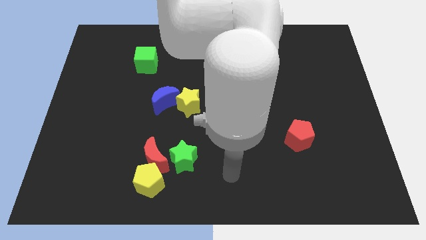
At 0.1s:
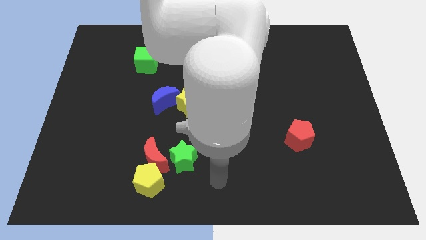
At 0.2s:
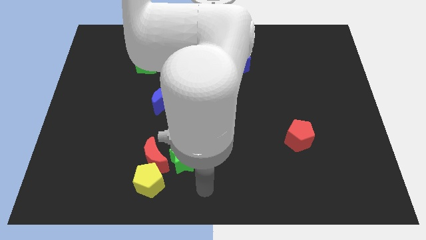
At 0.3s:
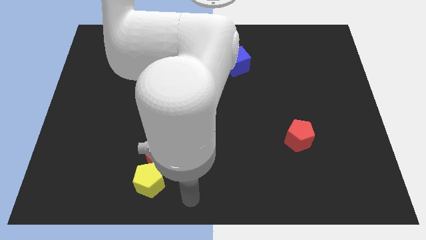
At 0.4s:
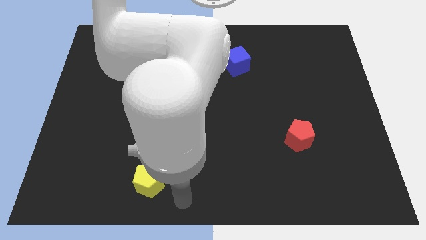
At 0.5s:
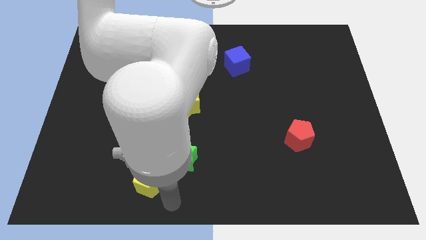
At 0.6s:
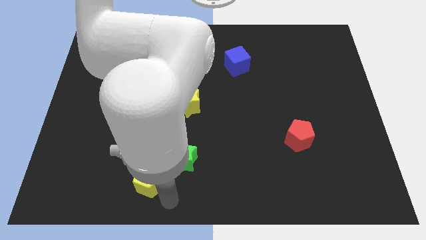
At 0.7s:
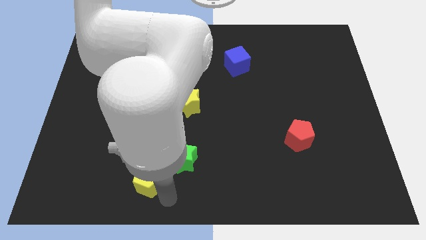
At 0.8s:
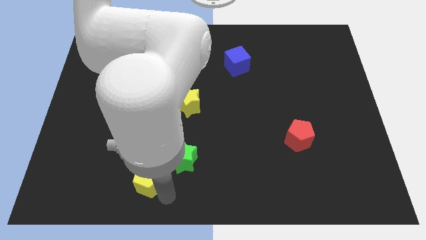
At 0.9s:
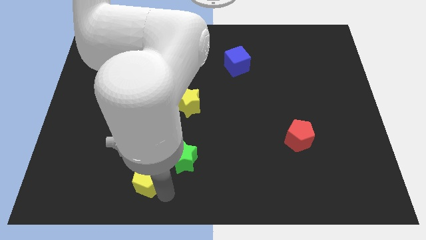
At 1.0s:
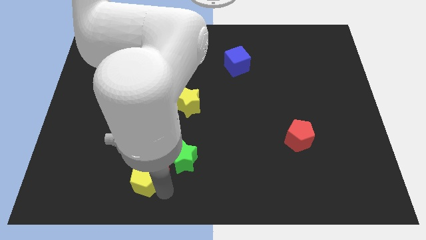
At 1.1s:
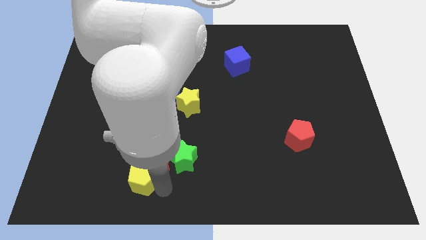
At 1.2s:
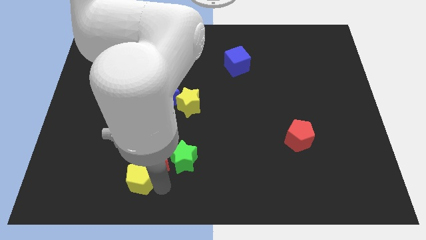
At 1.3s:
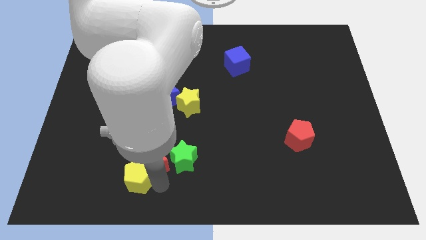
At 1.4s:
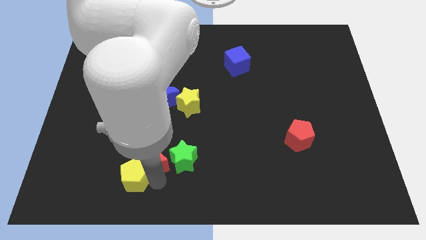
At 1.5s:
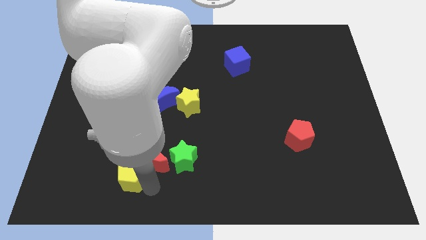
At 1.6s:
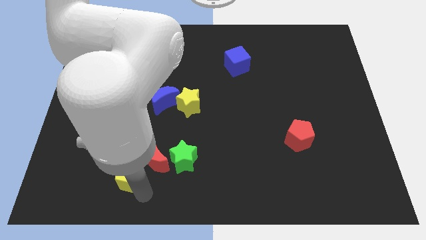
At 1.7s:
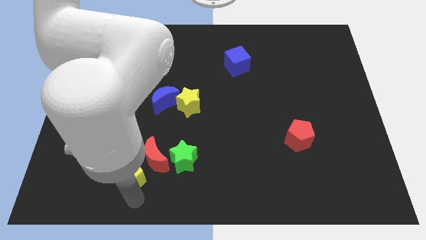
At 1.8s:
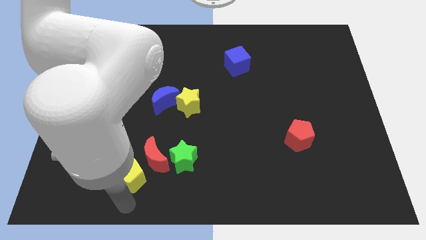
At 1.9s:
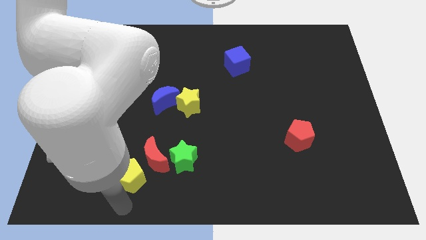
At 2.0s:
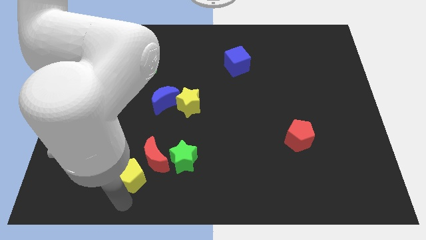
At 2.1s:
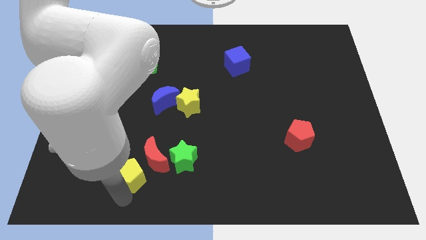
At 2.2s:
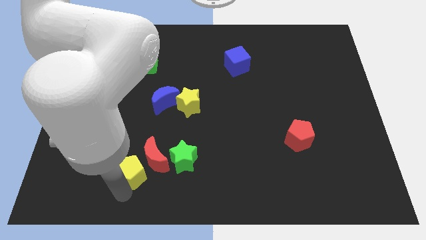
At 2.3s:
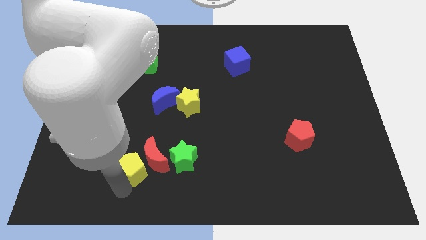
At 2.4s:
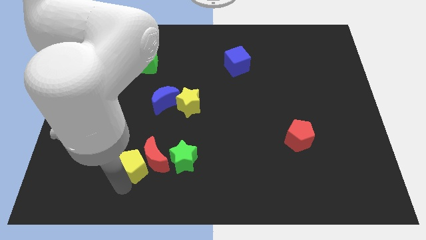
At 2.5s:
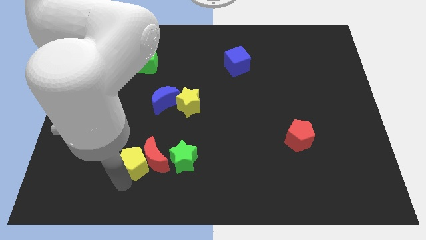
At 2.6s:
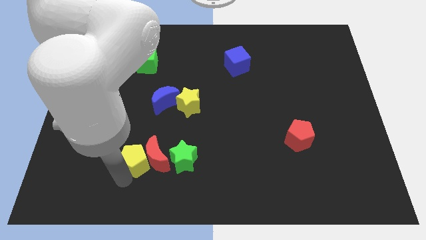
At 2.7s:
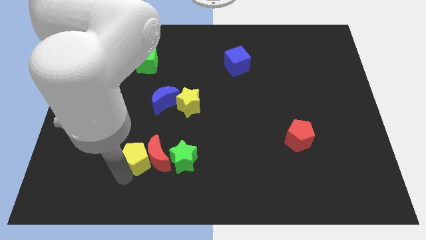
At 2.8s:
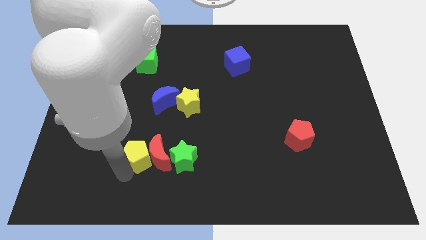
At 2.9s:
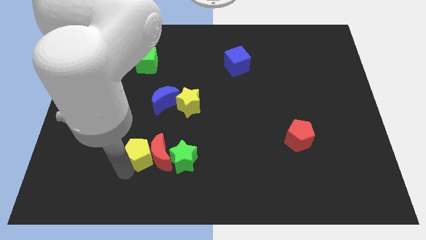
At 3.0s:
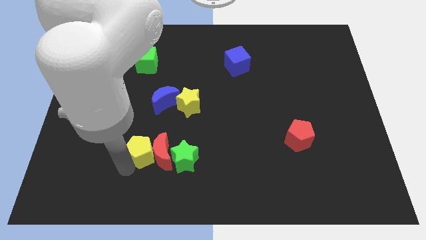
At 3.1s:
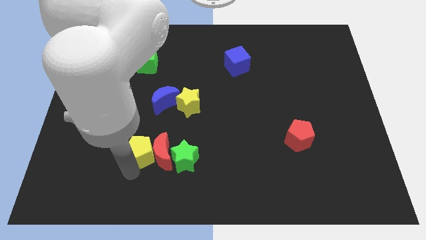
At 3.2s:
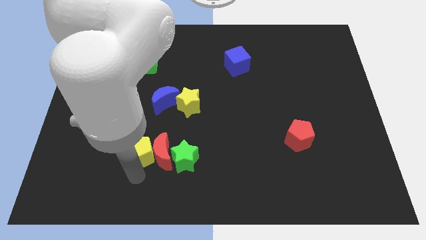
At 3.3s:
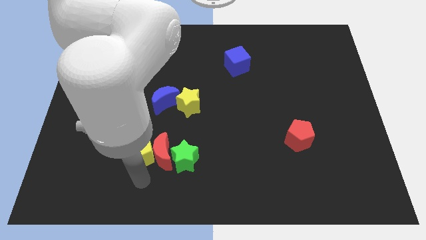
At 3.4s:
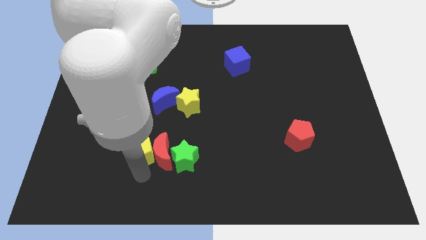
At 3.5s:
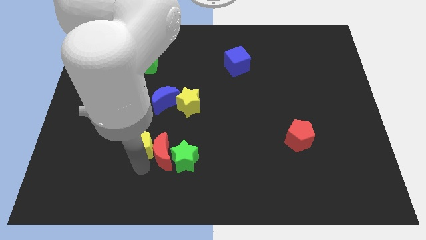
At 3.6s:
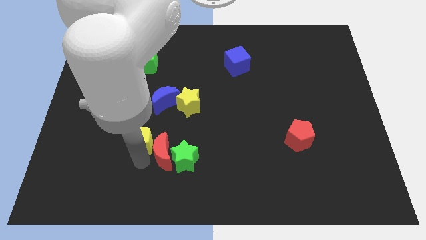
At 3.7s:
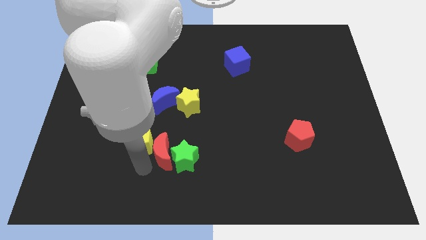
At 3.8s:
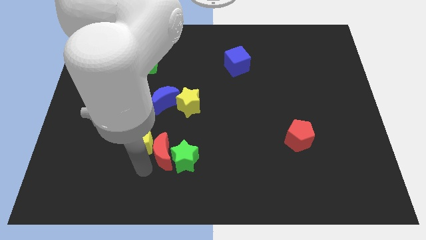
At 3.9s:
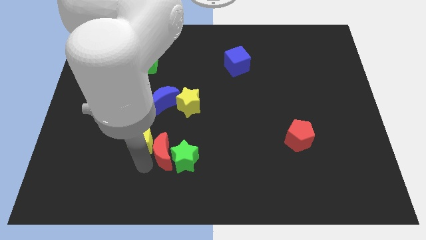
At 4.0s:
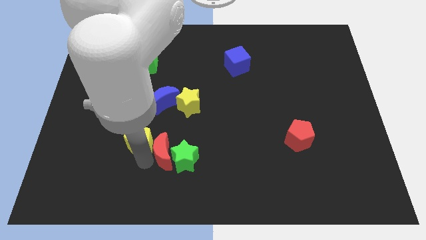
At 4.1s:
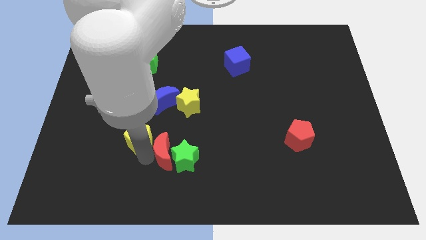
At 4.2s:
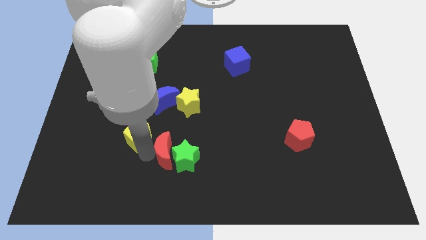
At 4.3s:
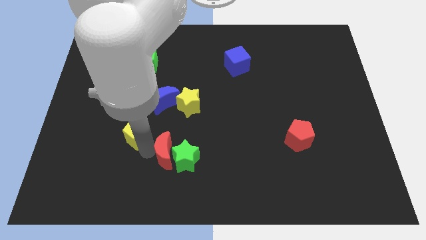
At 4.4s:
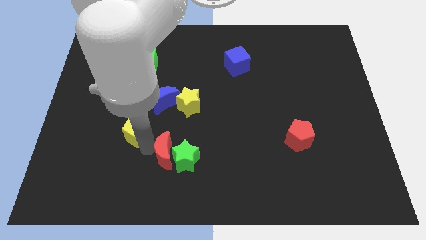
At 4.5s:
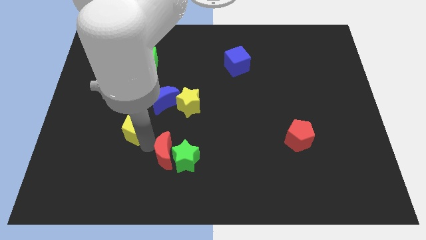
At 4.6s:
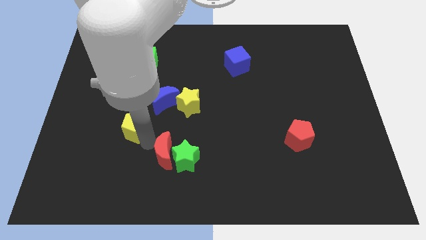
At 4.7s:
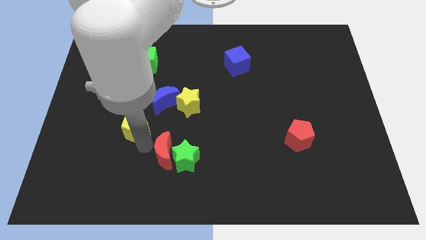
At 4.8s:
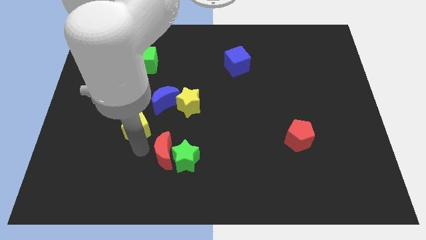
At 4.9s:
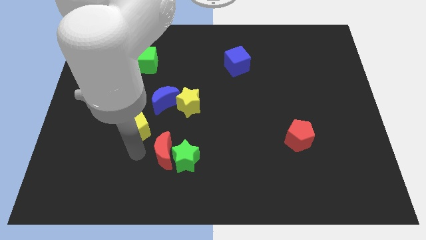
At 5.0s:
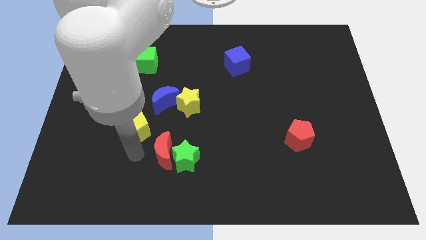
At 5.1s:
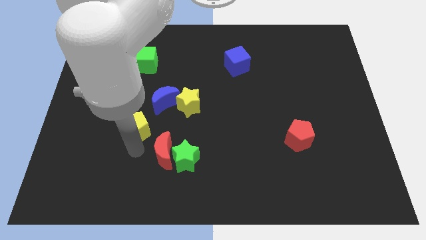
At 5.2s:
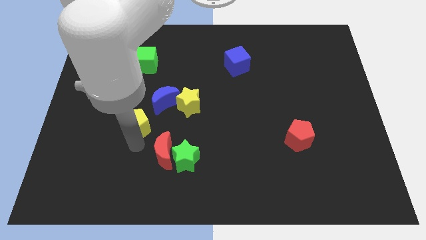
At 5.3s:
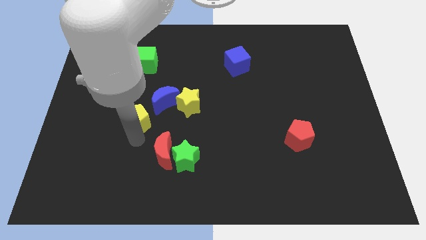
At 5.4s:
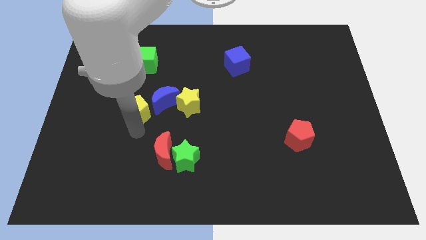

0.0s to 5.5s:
slide the yellow pentagon to the bottom of the green cube

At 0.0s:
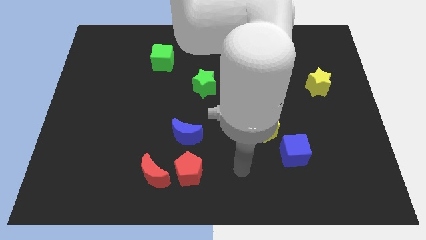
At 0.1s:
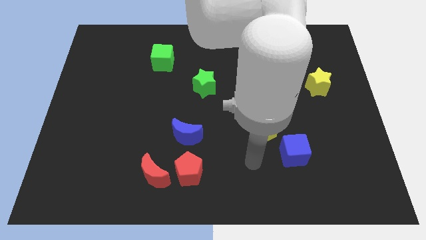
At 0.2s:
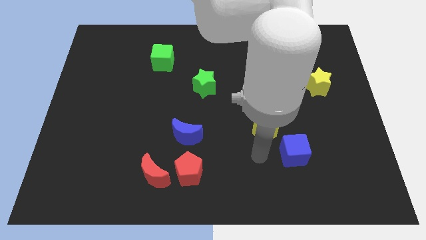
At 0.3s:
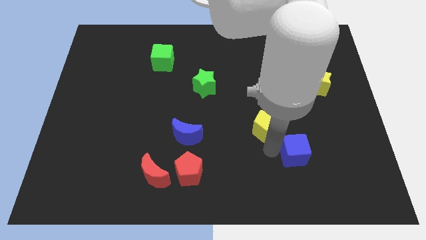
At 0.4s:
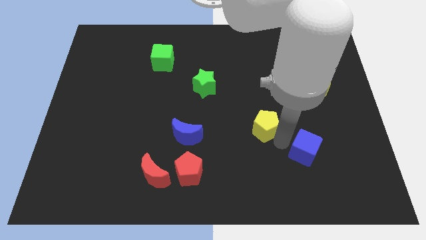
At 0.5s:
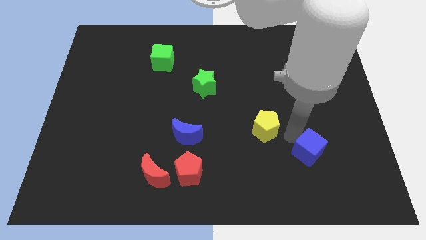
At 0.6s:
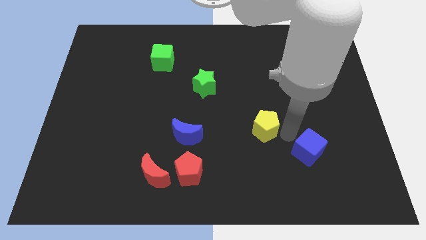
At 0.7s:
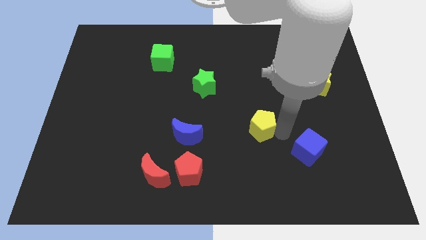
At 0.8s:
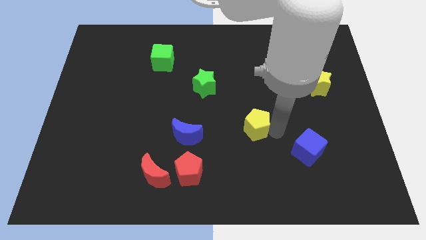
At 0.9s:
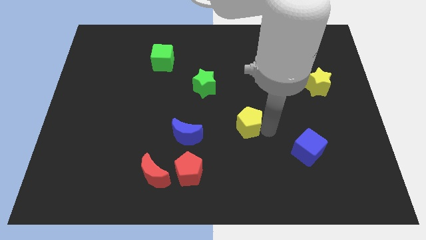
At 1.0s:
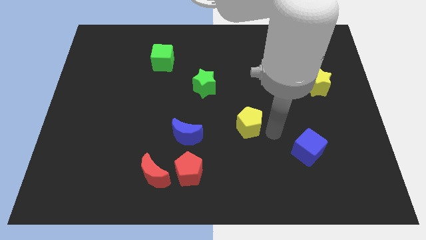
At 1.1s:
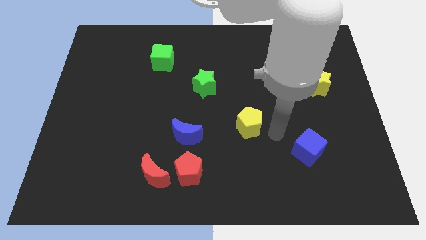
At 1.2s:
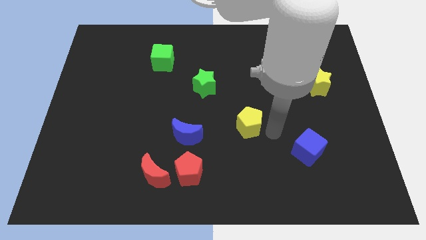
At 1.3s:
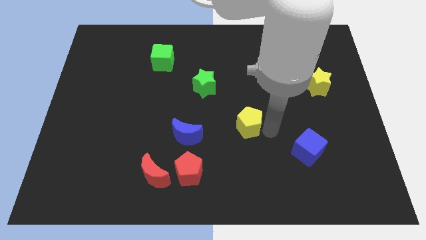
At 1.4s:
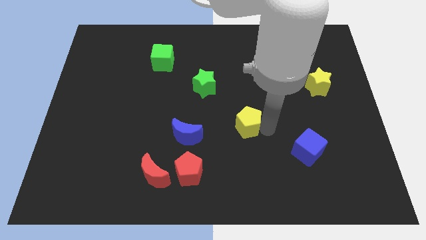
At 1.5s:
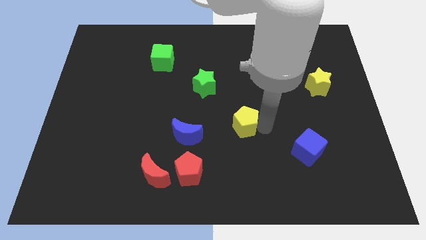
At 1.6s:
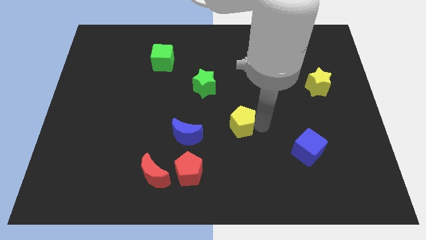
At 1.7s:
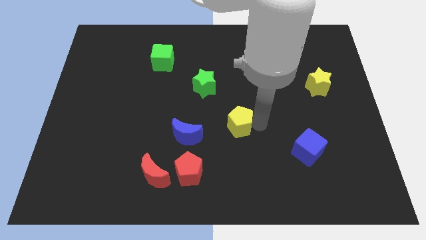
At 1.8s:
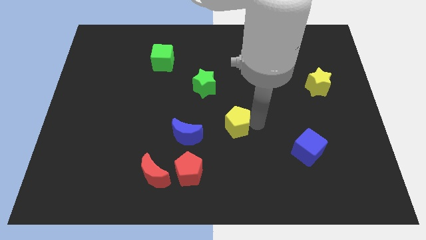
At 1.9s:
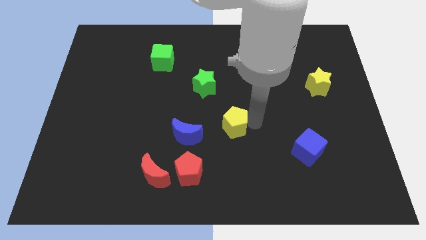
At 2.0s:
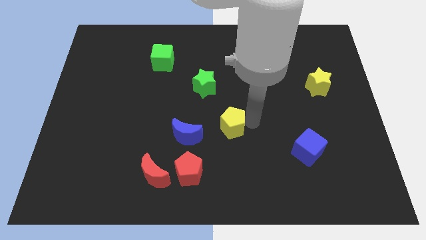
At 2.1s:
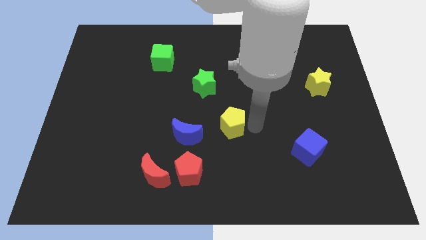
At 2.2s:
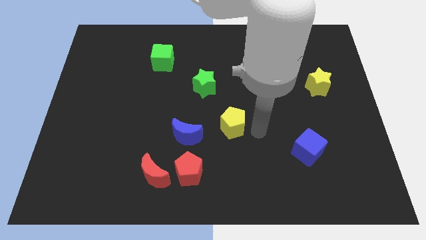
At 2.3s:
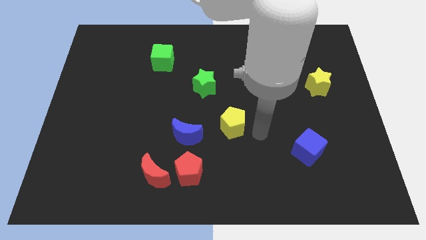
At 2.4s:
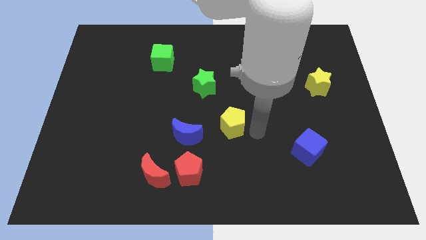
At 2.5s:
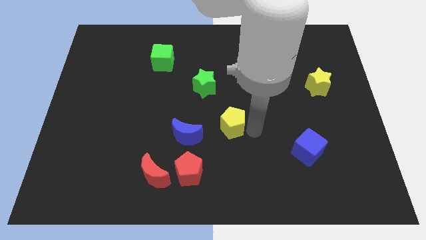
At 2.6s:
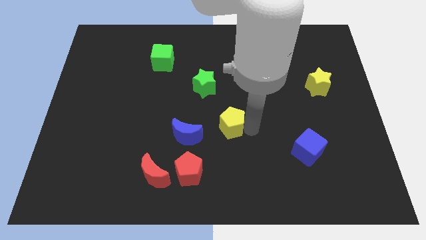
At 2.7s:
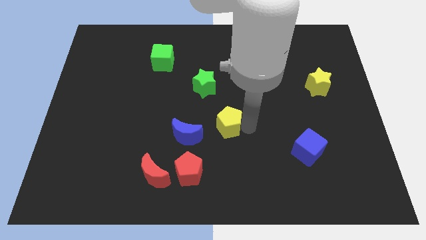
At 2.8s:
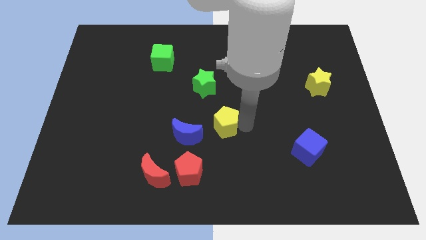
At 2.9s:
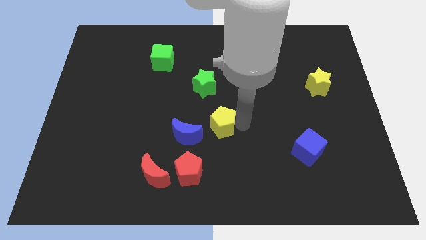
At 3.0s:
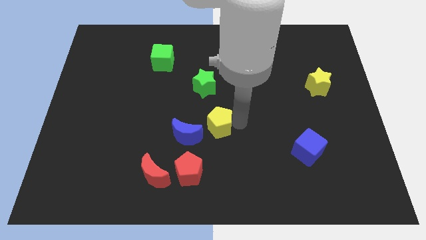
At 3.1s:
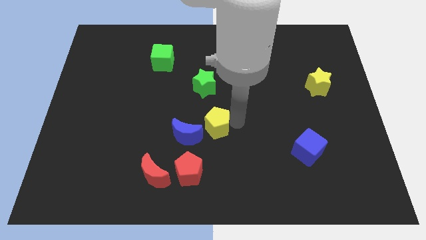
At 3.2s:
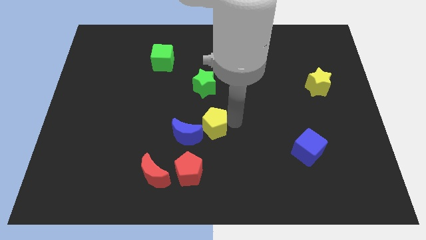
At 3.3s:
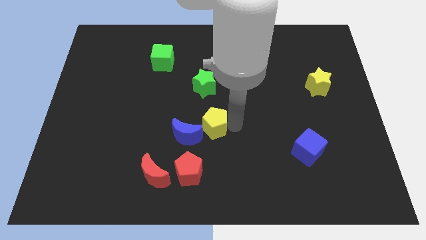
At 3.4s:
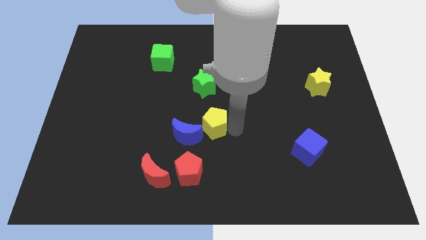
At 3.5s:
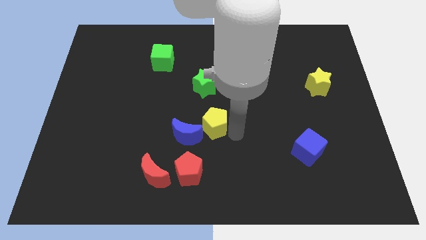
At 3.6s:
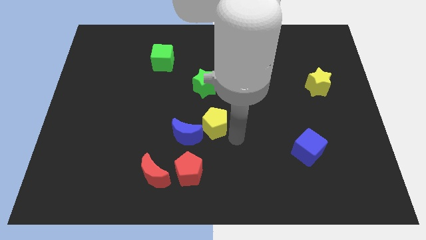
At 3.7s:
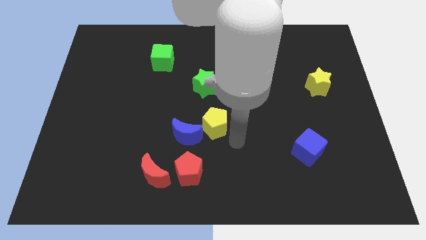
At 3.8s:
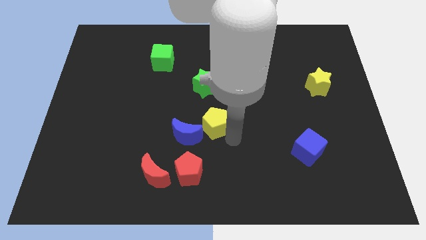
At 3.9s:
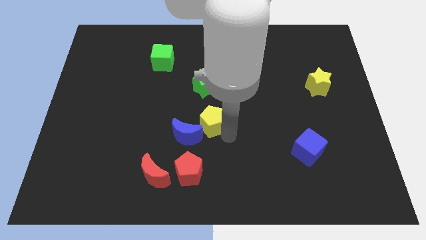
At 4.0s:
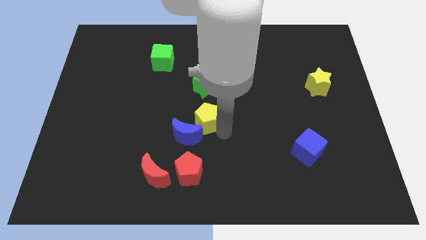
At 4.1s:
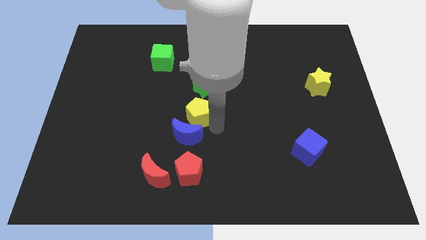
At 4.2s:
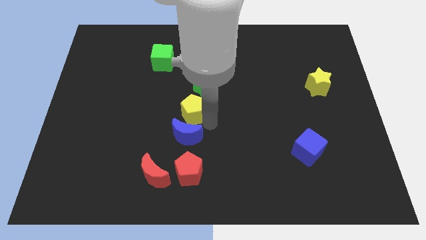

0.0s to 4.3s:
move the yellow pentagon to the bottom left of the green star
